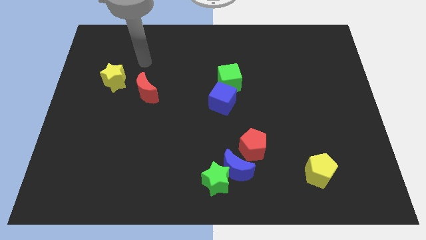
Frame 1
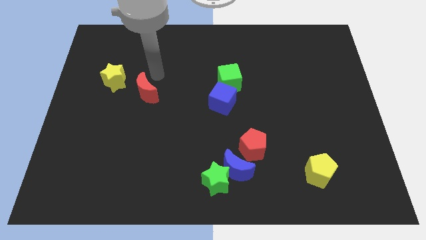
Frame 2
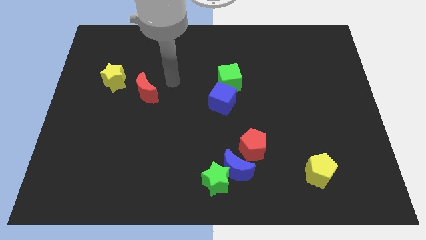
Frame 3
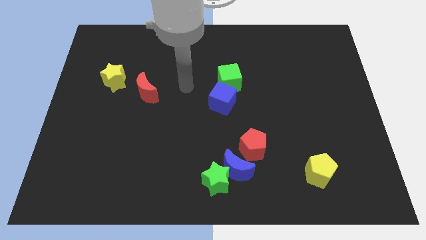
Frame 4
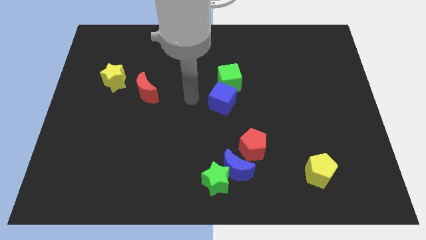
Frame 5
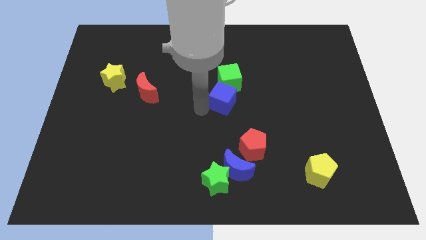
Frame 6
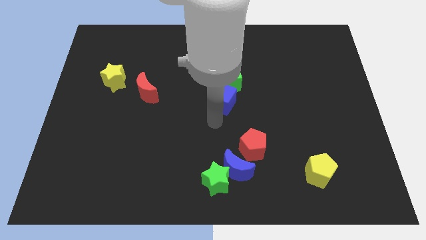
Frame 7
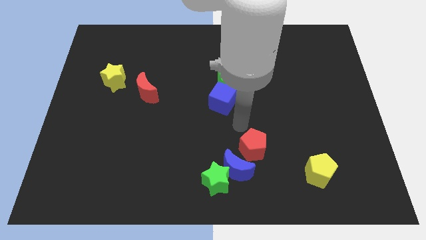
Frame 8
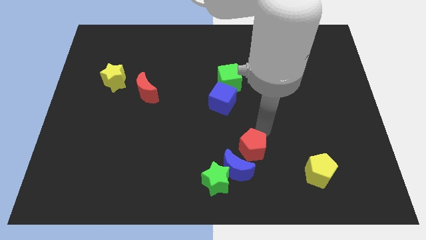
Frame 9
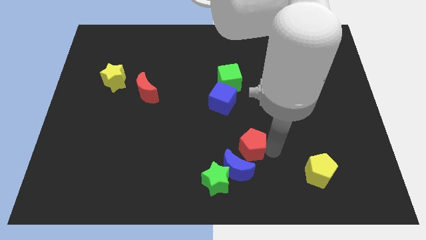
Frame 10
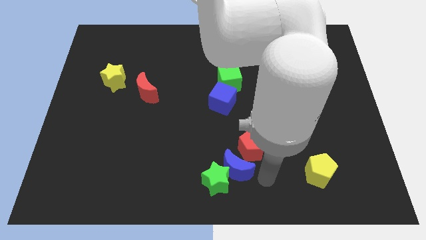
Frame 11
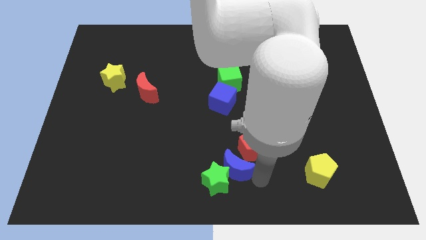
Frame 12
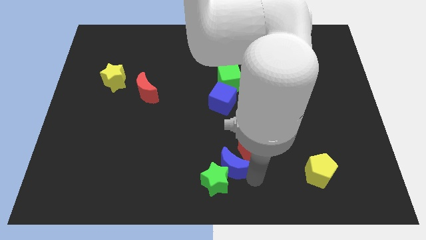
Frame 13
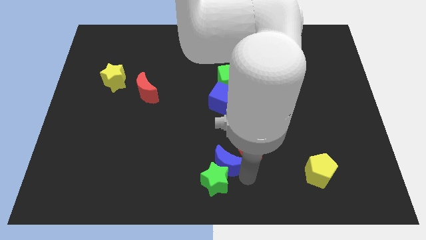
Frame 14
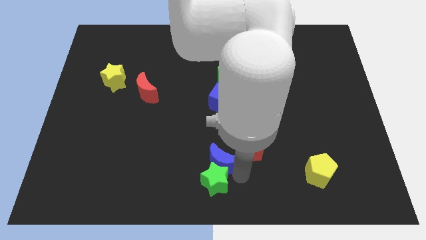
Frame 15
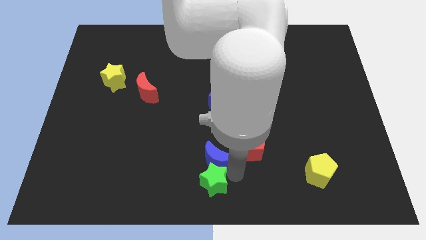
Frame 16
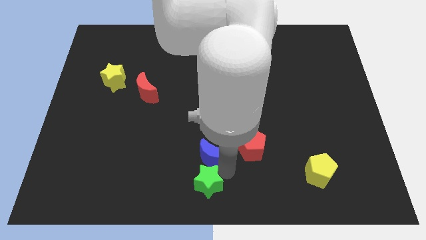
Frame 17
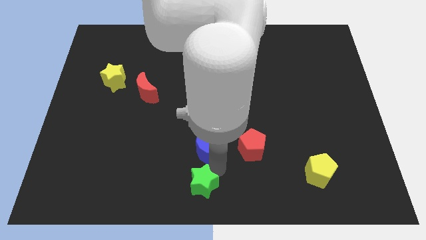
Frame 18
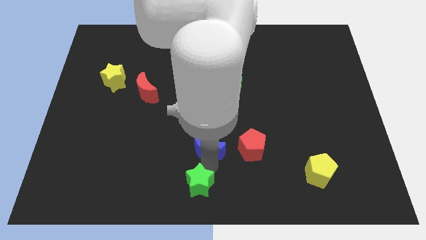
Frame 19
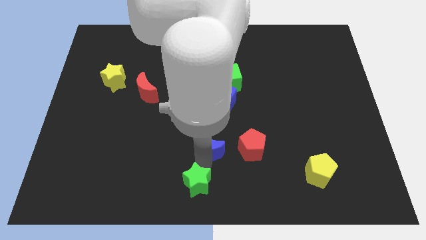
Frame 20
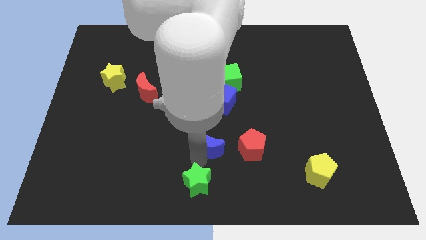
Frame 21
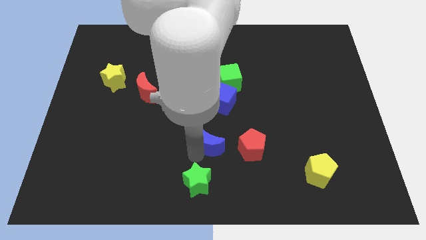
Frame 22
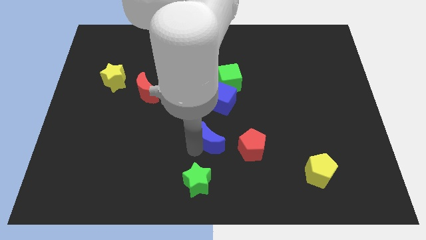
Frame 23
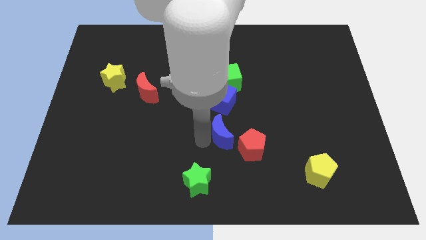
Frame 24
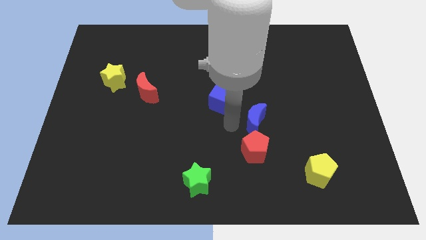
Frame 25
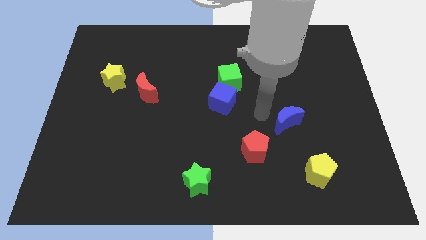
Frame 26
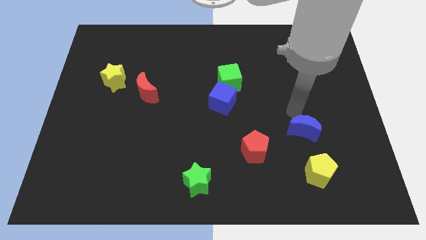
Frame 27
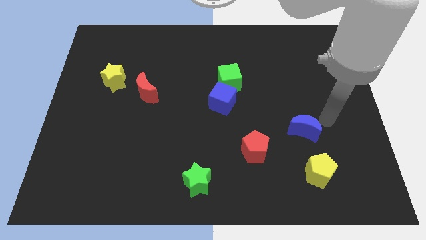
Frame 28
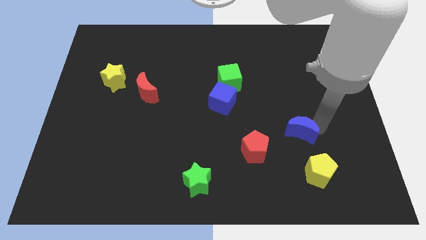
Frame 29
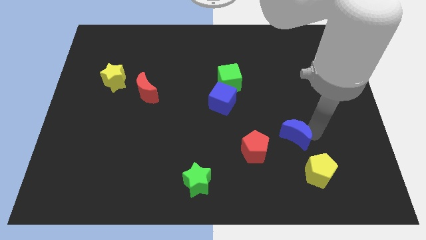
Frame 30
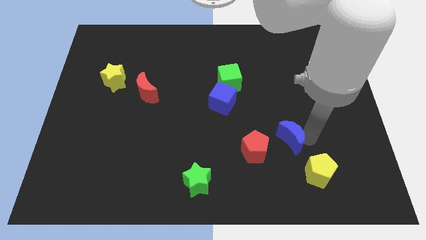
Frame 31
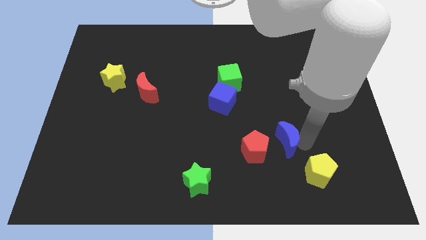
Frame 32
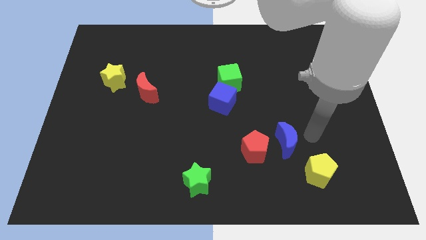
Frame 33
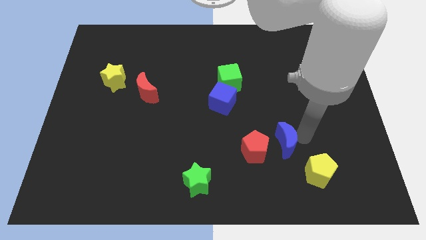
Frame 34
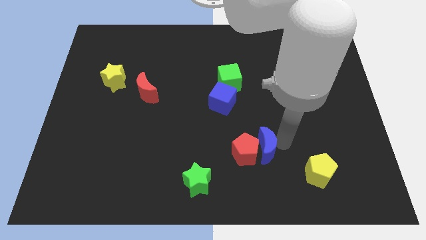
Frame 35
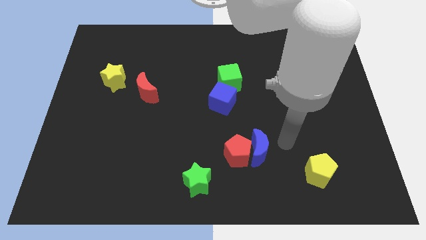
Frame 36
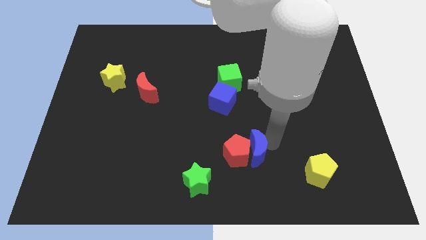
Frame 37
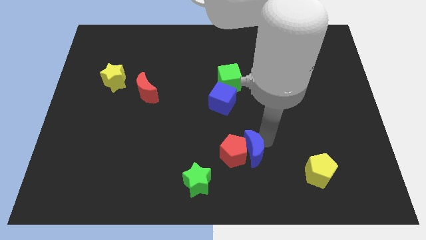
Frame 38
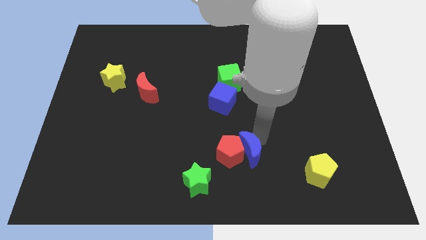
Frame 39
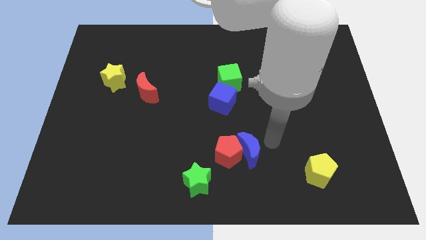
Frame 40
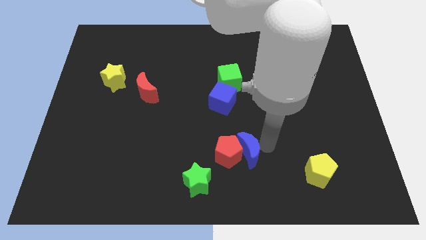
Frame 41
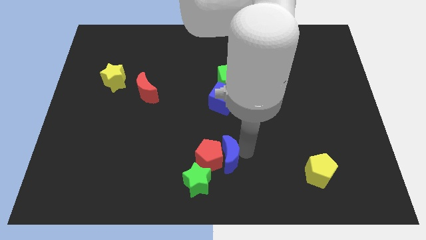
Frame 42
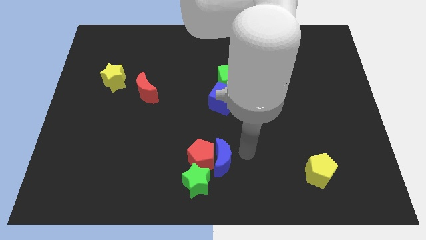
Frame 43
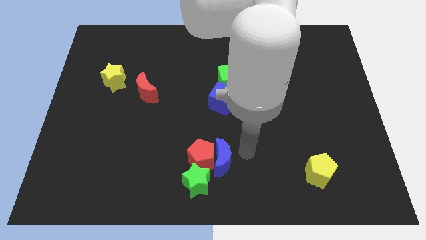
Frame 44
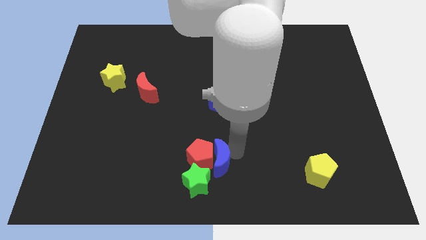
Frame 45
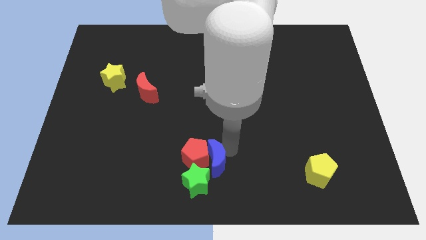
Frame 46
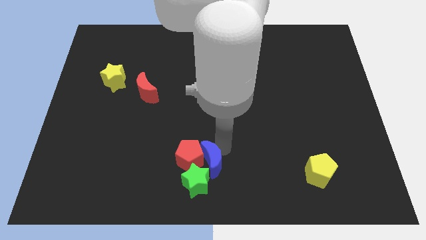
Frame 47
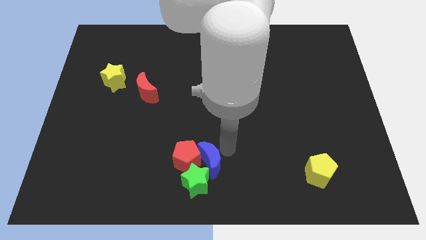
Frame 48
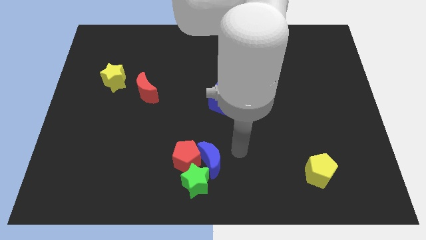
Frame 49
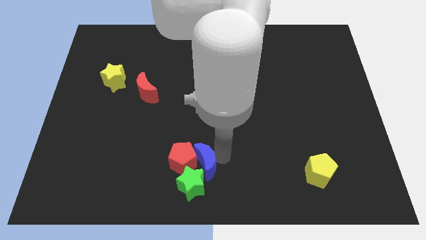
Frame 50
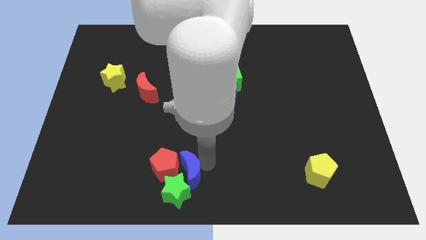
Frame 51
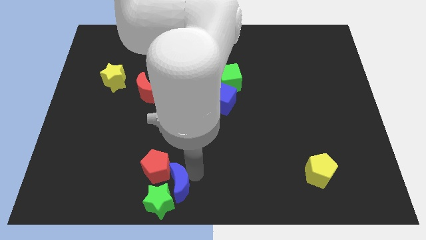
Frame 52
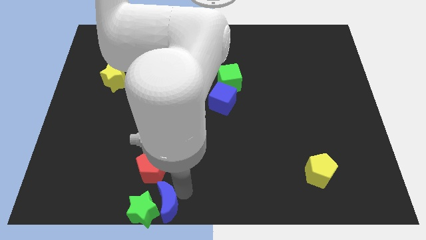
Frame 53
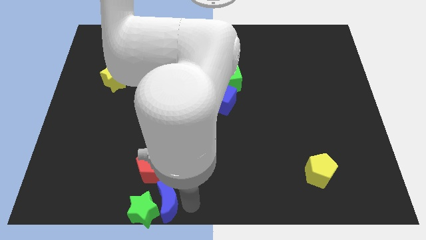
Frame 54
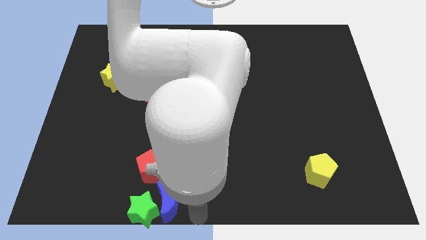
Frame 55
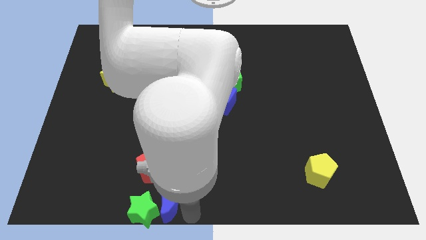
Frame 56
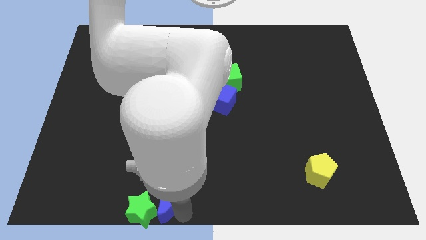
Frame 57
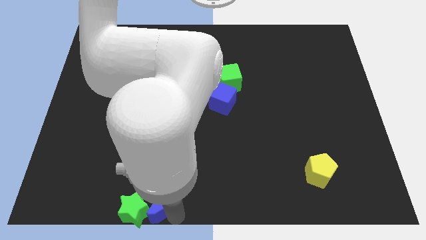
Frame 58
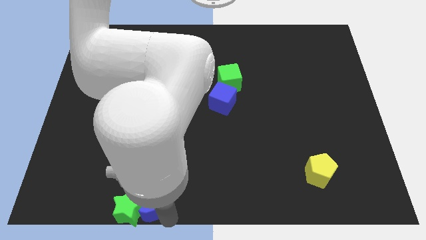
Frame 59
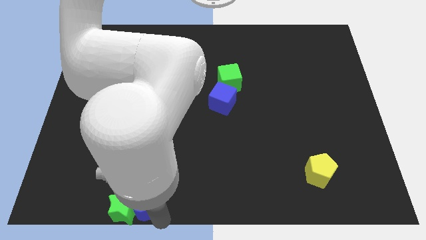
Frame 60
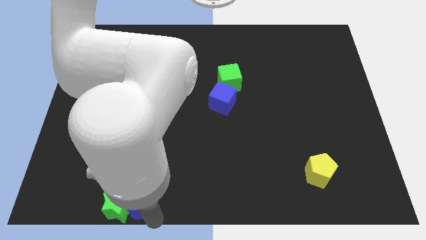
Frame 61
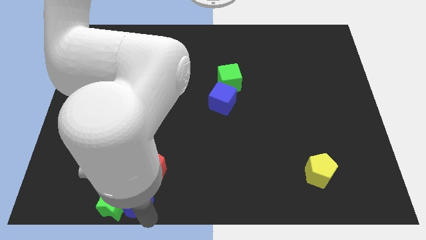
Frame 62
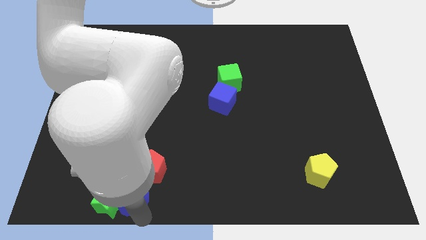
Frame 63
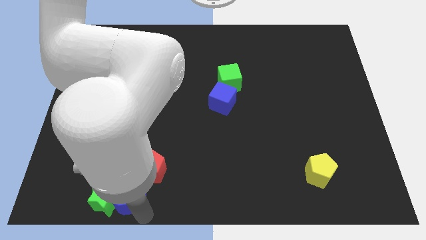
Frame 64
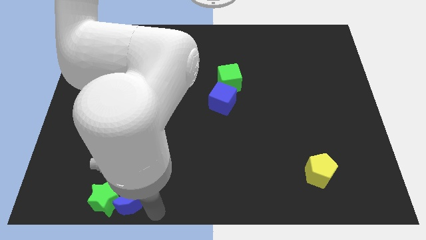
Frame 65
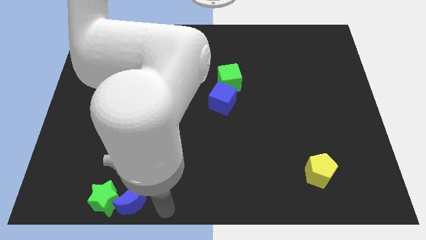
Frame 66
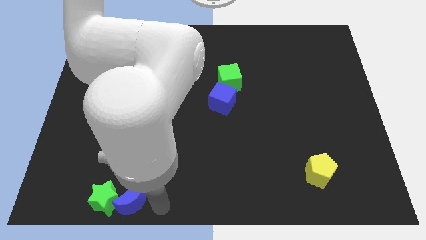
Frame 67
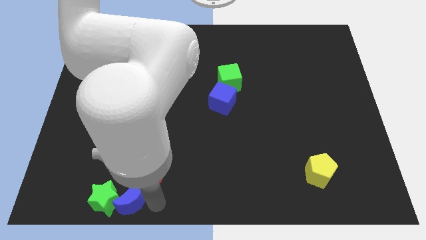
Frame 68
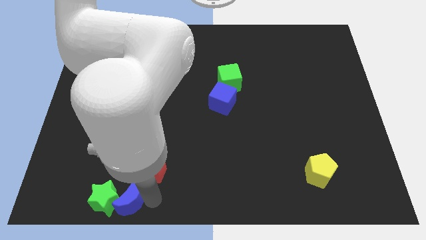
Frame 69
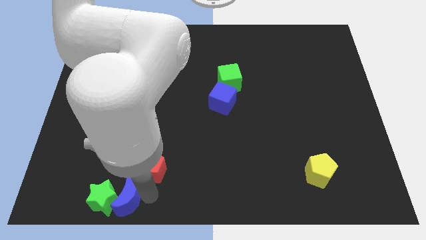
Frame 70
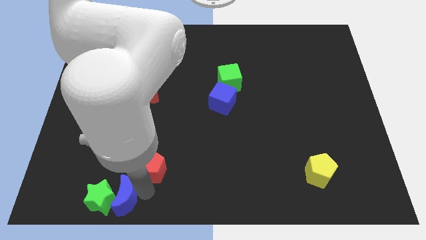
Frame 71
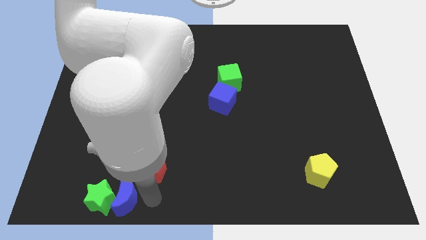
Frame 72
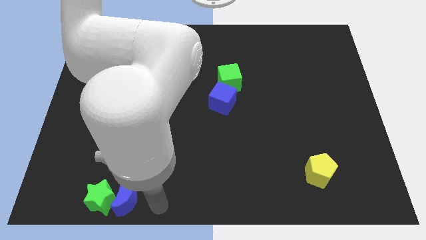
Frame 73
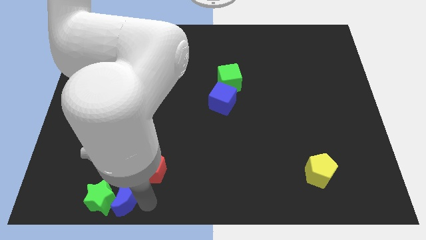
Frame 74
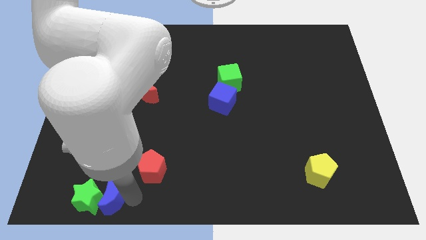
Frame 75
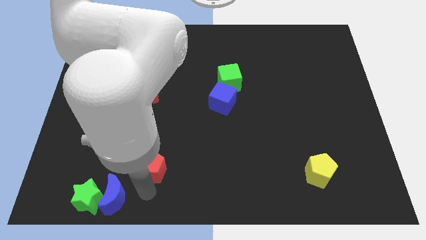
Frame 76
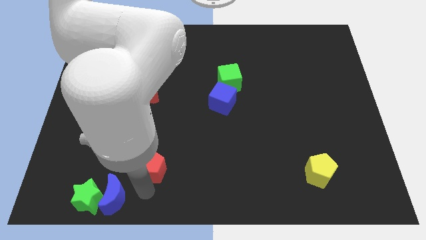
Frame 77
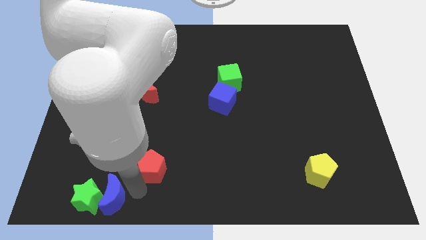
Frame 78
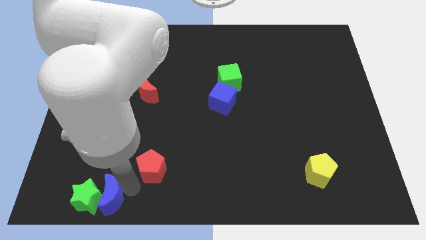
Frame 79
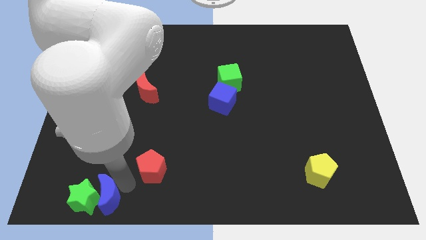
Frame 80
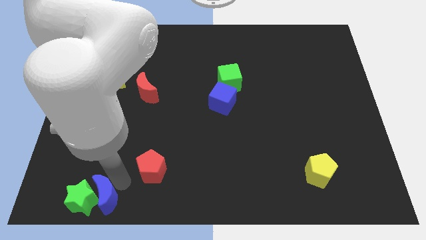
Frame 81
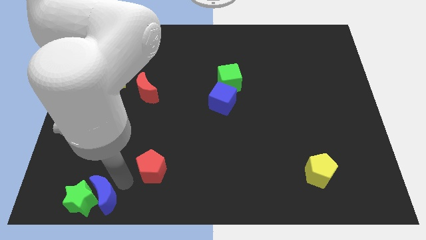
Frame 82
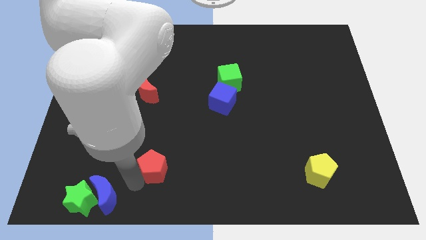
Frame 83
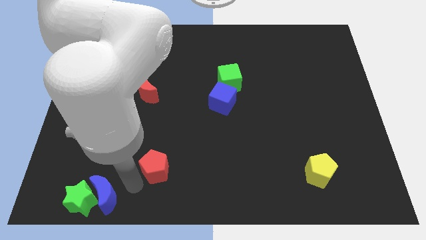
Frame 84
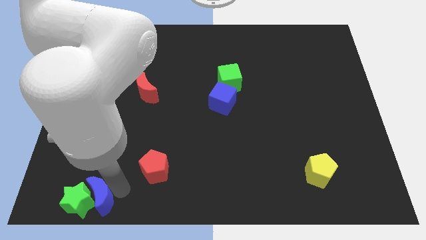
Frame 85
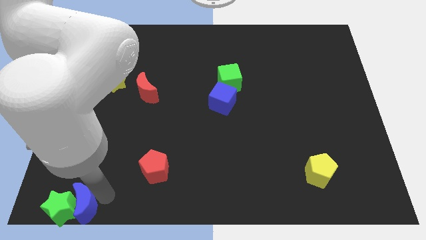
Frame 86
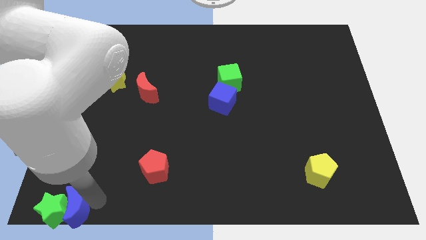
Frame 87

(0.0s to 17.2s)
slide the blue moon to the bottom left of the board
